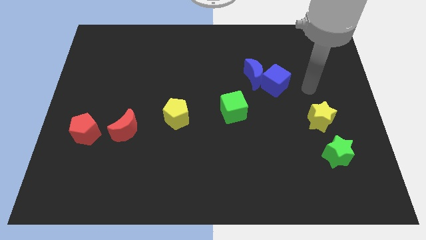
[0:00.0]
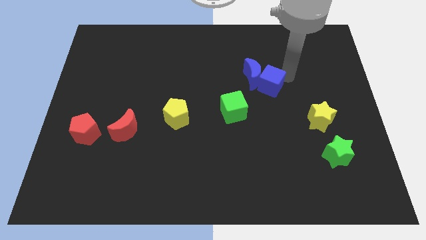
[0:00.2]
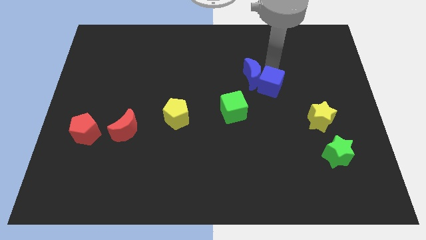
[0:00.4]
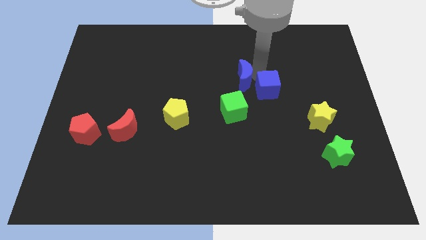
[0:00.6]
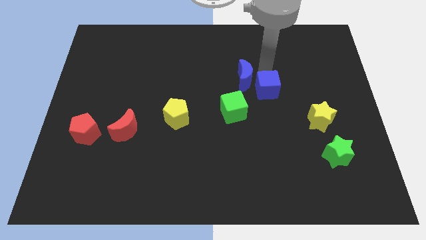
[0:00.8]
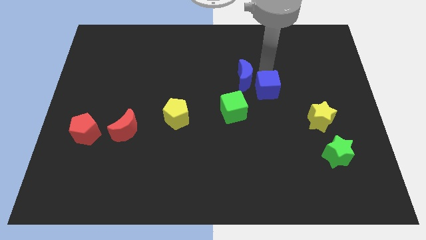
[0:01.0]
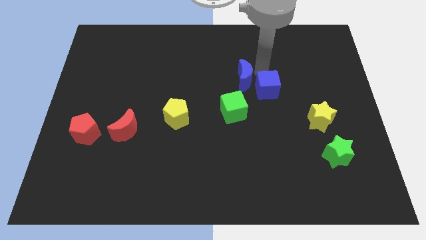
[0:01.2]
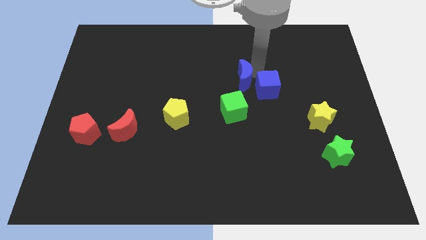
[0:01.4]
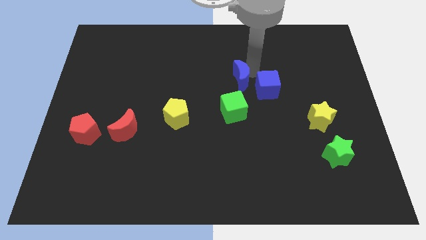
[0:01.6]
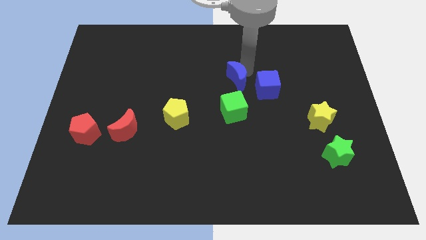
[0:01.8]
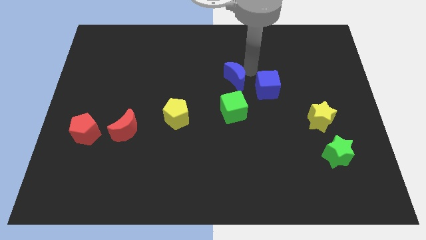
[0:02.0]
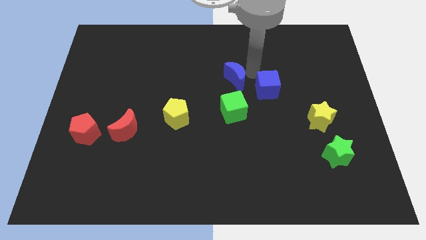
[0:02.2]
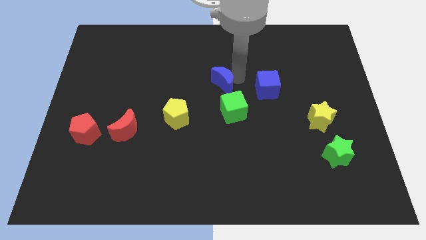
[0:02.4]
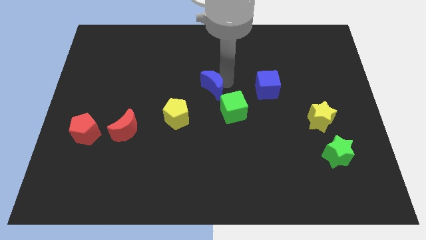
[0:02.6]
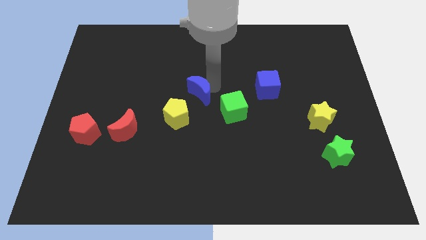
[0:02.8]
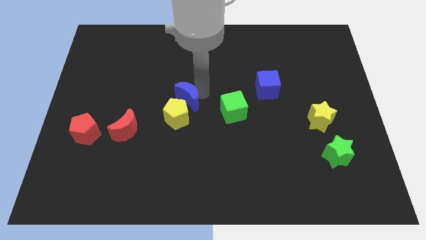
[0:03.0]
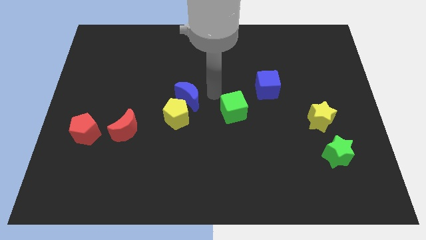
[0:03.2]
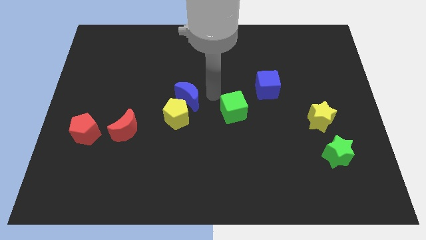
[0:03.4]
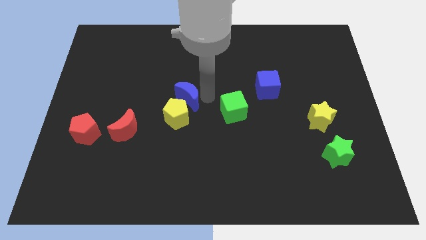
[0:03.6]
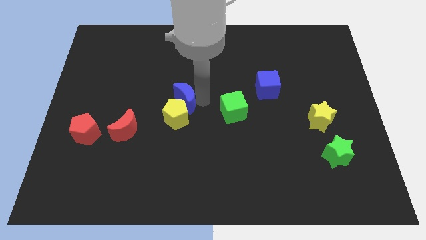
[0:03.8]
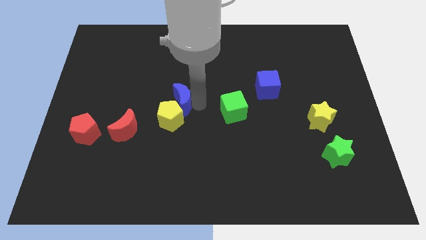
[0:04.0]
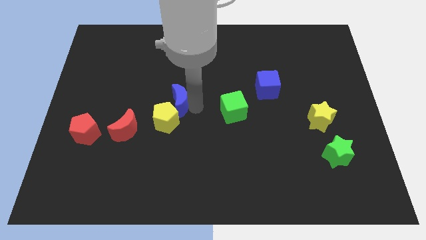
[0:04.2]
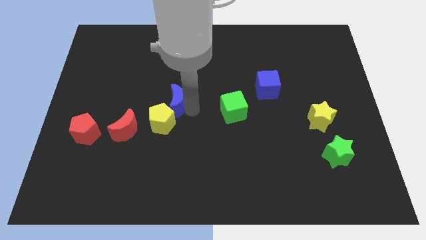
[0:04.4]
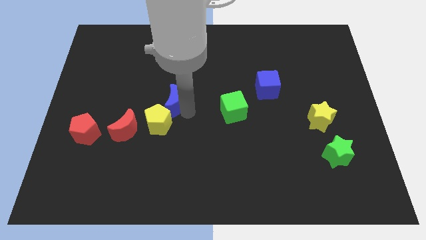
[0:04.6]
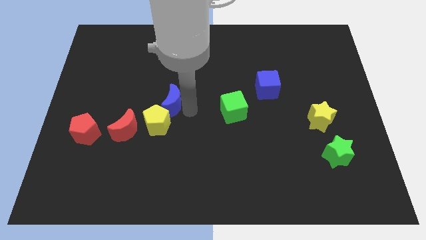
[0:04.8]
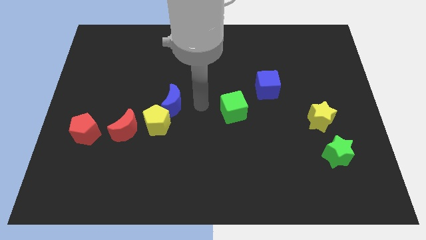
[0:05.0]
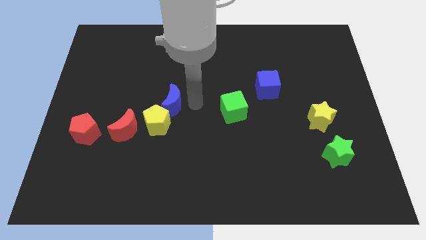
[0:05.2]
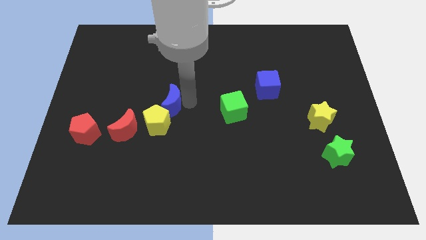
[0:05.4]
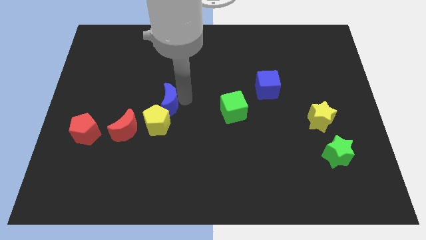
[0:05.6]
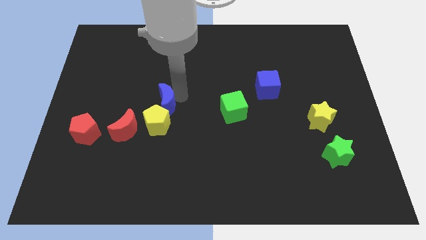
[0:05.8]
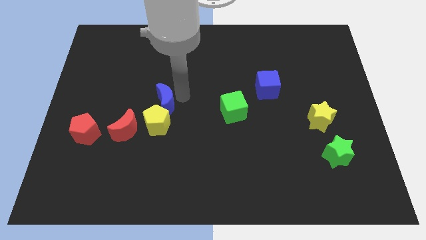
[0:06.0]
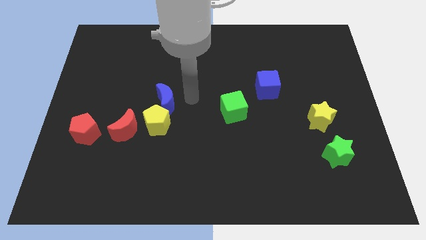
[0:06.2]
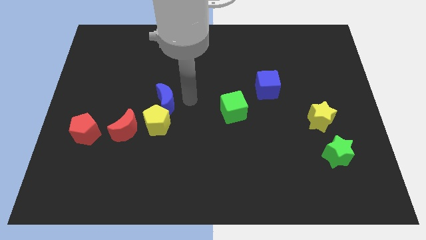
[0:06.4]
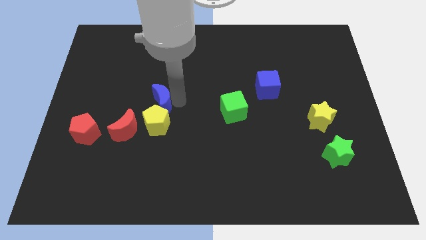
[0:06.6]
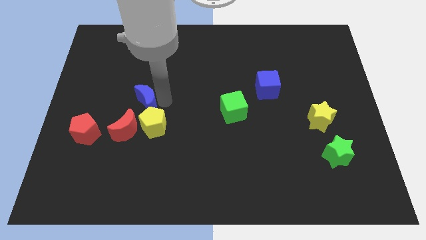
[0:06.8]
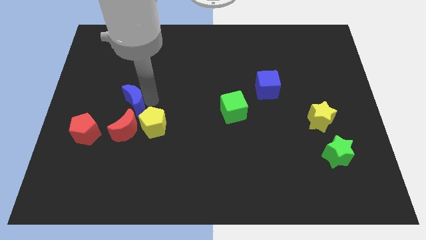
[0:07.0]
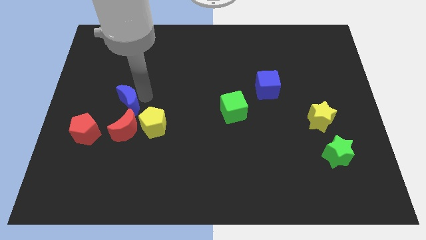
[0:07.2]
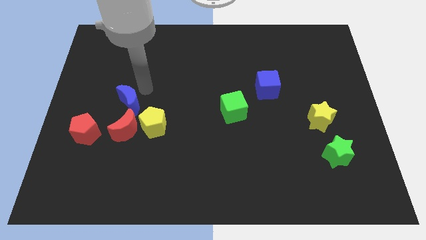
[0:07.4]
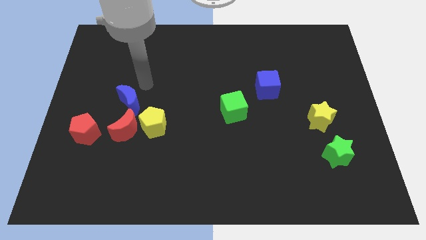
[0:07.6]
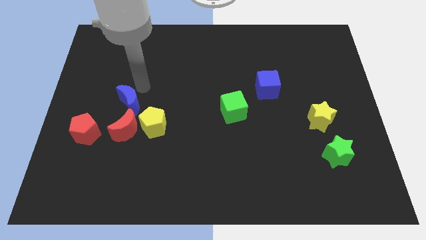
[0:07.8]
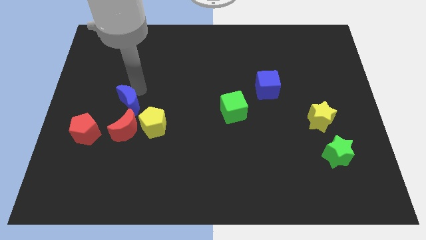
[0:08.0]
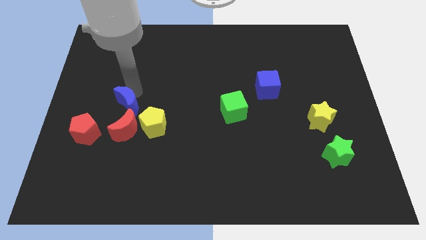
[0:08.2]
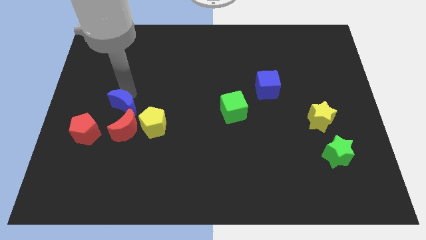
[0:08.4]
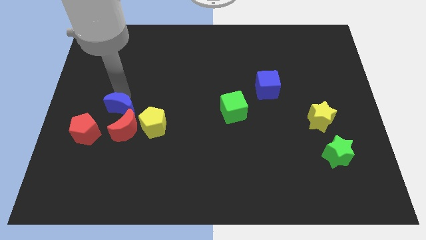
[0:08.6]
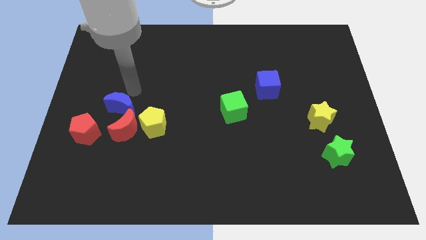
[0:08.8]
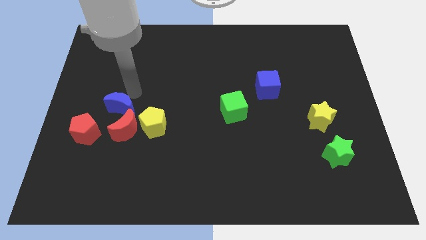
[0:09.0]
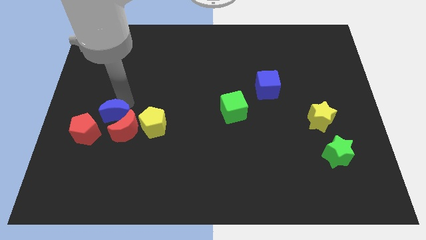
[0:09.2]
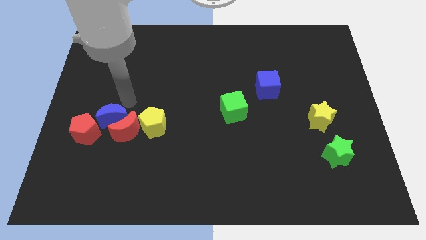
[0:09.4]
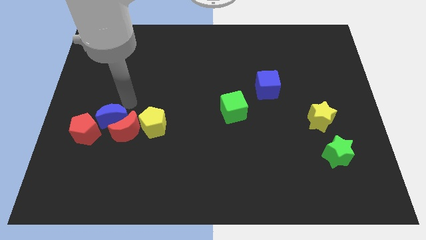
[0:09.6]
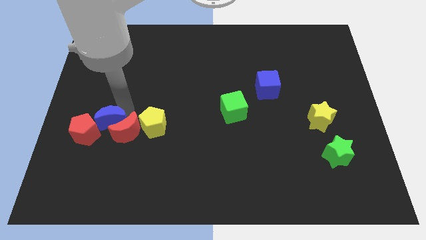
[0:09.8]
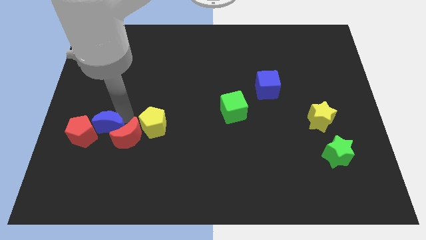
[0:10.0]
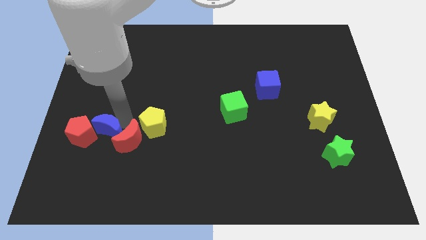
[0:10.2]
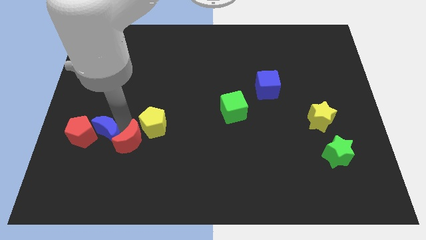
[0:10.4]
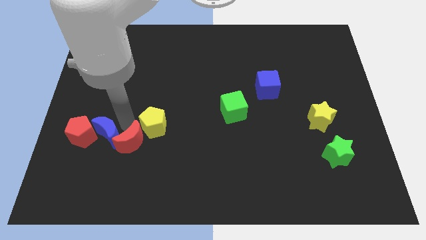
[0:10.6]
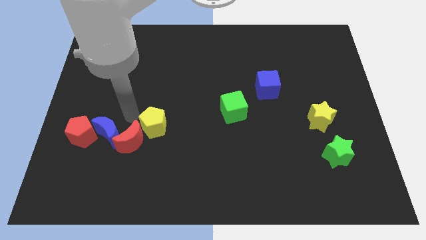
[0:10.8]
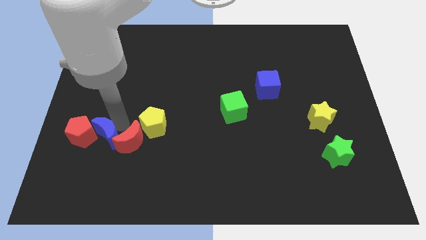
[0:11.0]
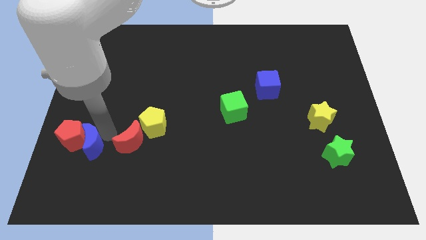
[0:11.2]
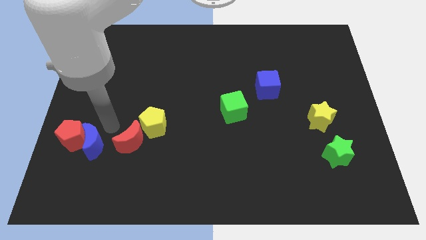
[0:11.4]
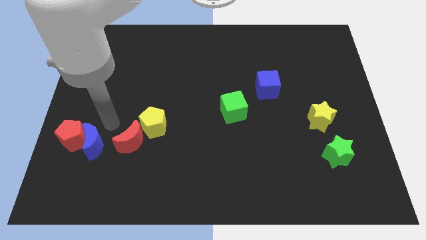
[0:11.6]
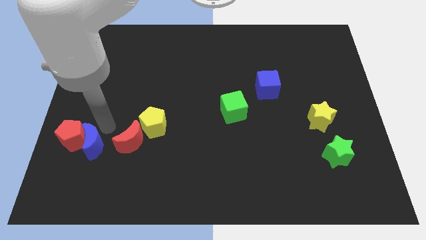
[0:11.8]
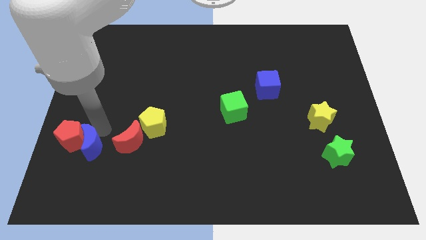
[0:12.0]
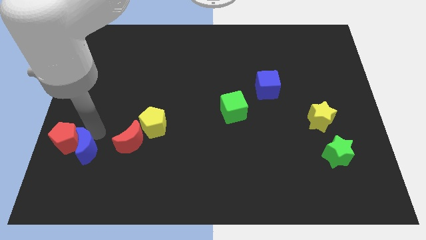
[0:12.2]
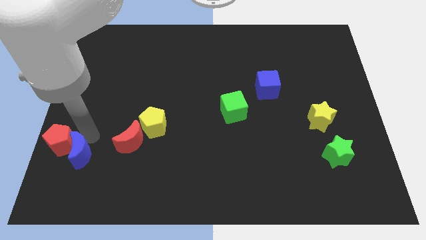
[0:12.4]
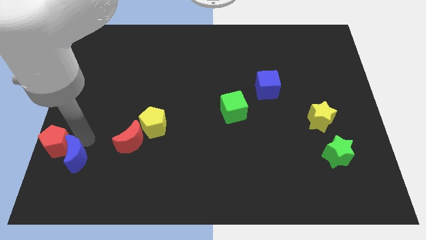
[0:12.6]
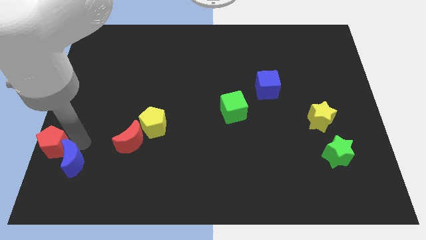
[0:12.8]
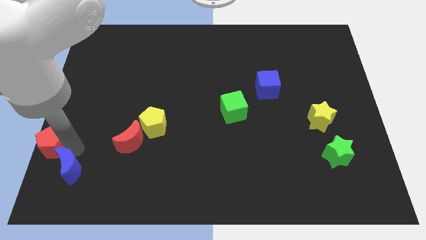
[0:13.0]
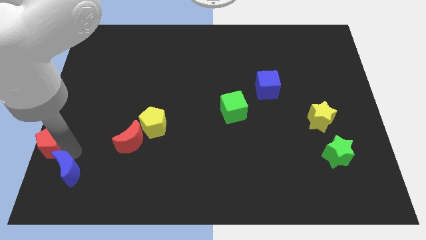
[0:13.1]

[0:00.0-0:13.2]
put the blue moon to the lower left corner
